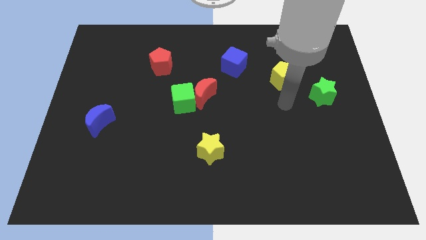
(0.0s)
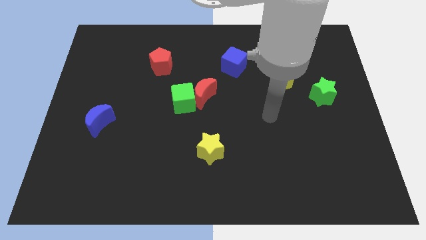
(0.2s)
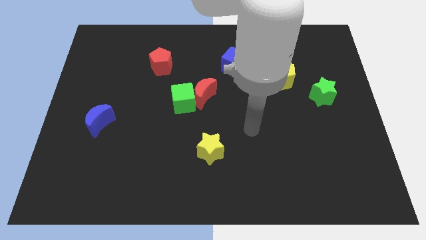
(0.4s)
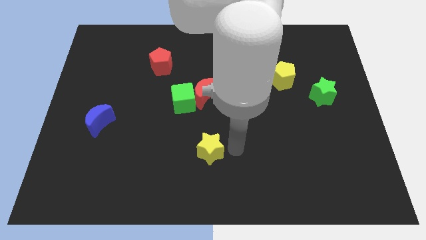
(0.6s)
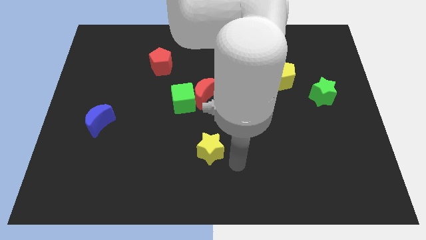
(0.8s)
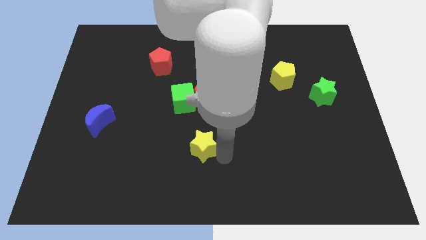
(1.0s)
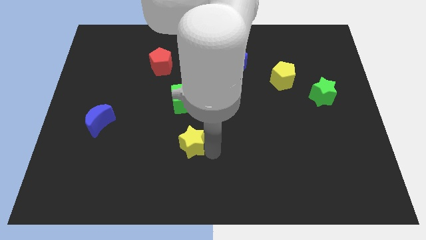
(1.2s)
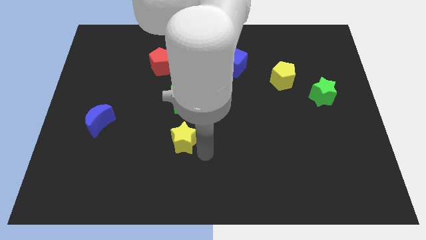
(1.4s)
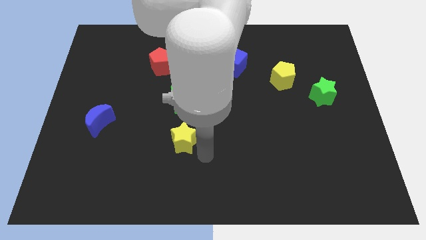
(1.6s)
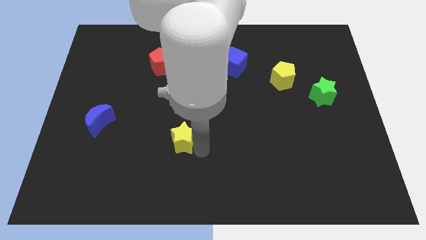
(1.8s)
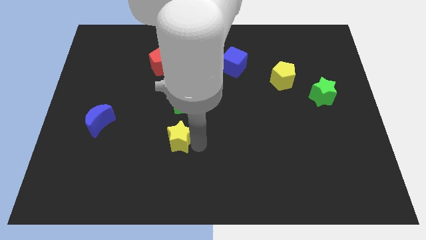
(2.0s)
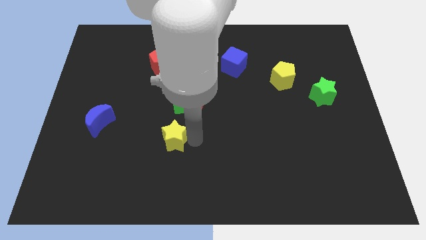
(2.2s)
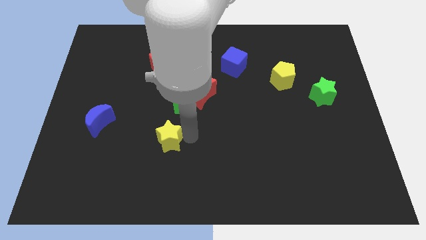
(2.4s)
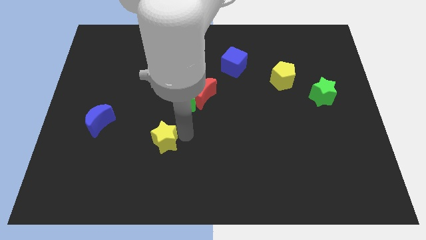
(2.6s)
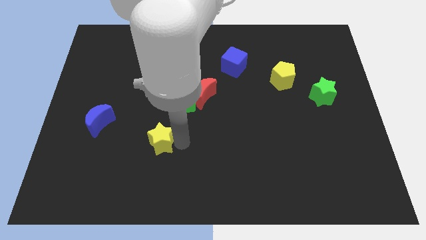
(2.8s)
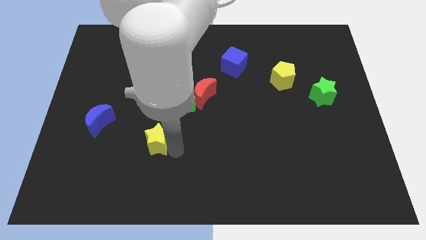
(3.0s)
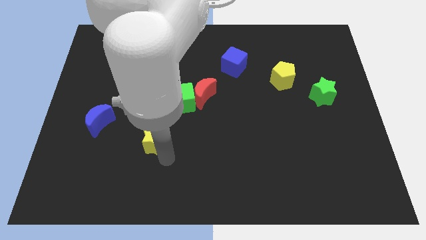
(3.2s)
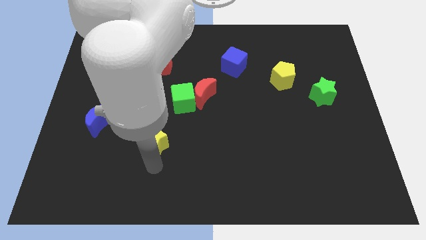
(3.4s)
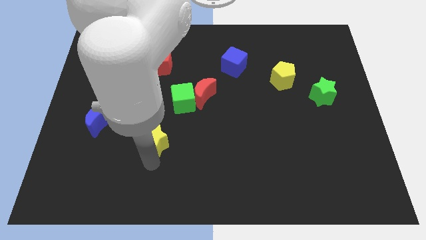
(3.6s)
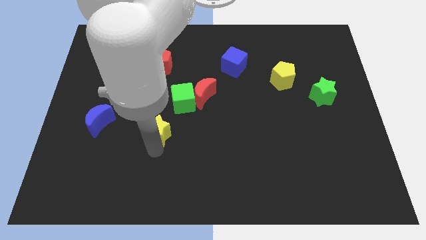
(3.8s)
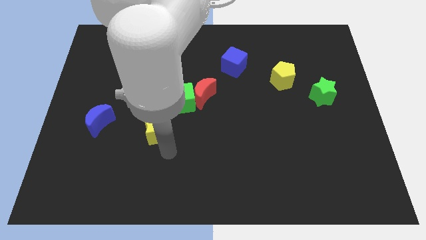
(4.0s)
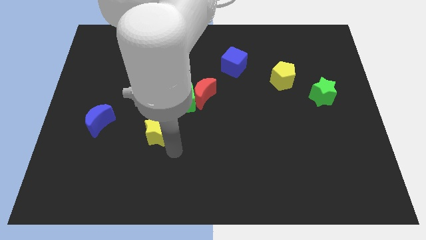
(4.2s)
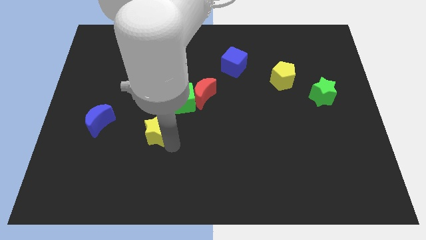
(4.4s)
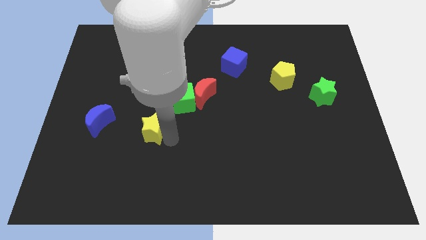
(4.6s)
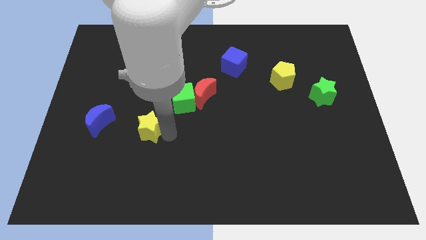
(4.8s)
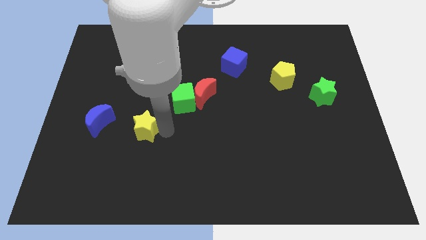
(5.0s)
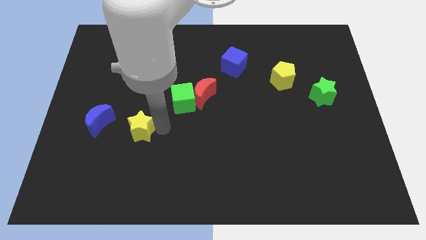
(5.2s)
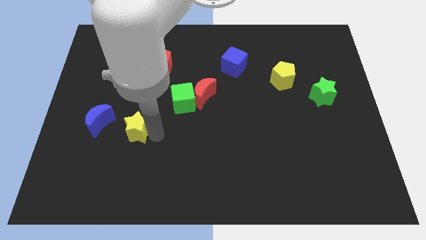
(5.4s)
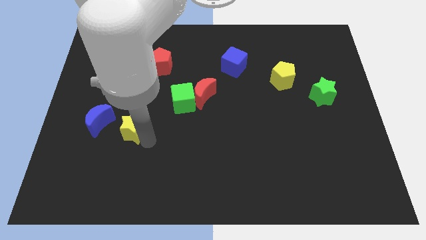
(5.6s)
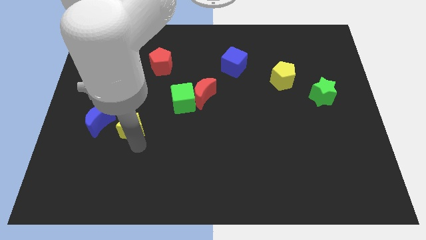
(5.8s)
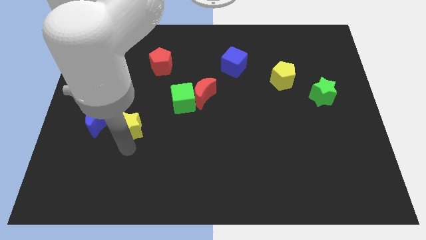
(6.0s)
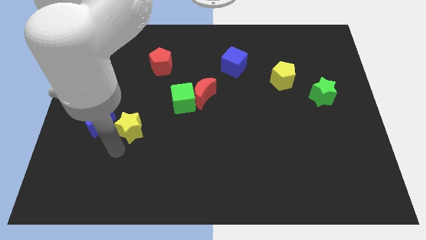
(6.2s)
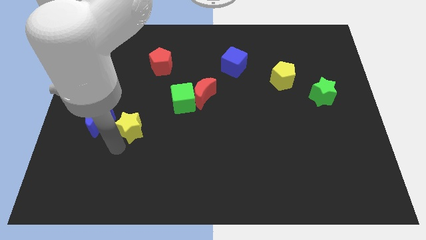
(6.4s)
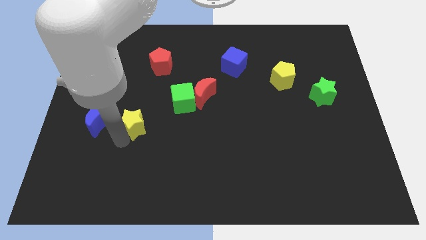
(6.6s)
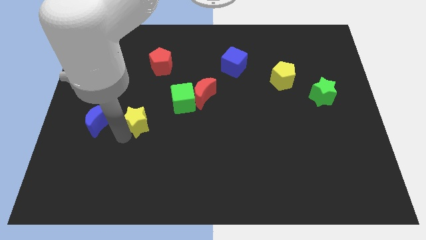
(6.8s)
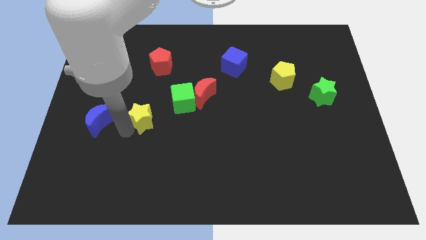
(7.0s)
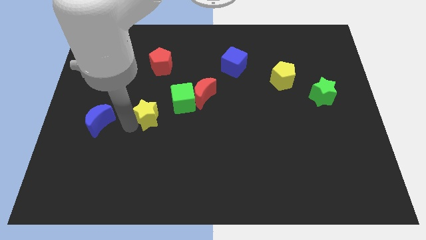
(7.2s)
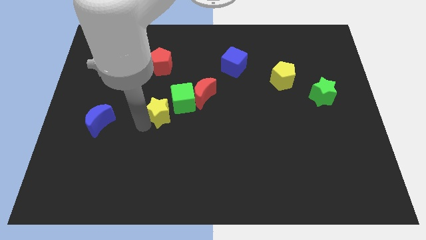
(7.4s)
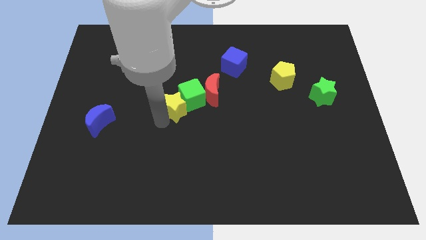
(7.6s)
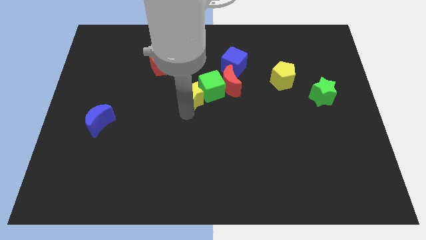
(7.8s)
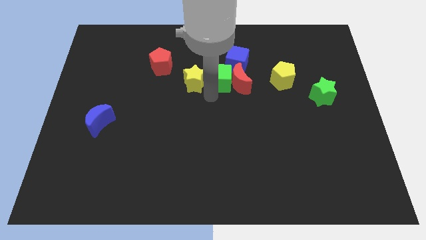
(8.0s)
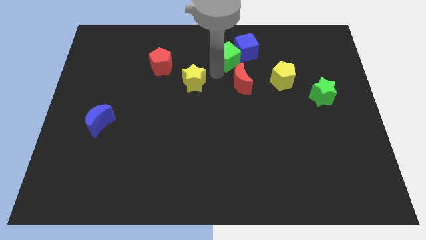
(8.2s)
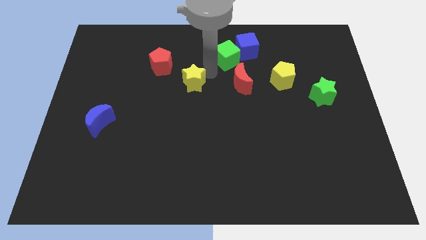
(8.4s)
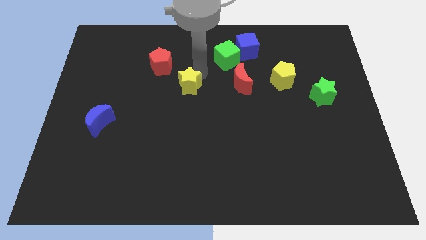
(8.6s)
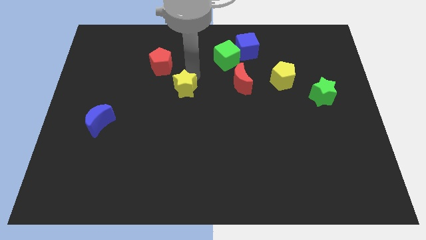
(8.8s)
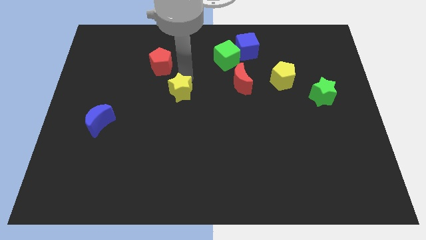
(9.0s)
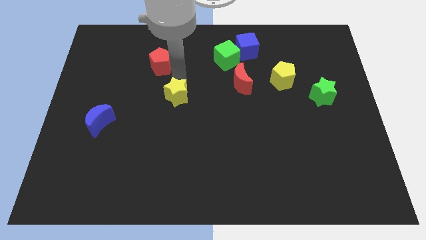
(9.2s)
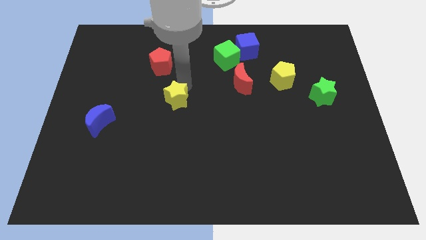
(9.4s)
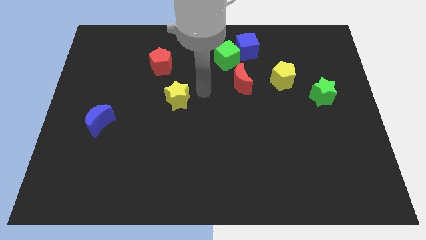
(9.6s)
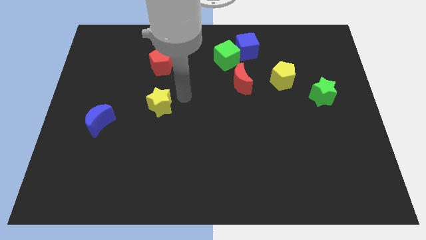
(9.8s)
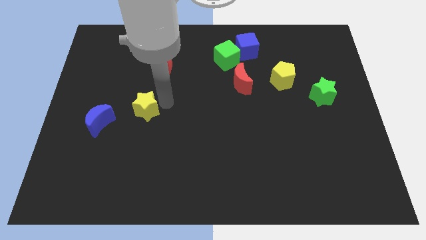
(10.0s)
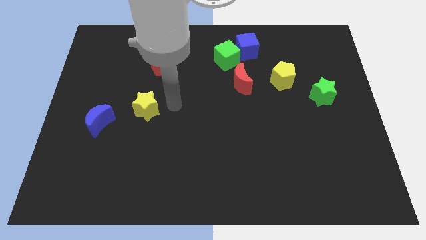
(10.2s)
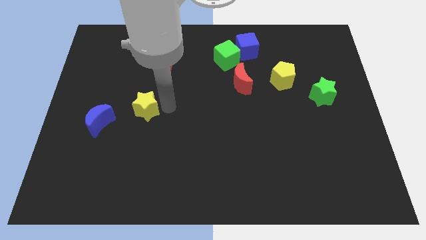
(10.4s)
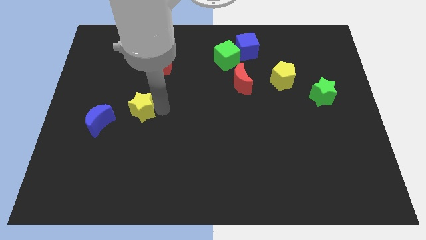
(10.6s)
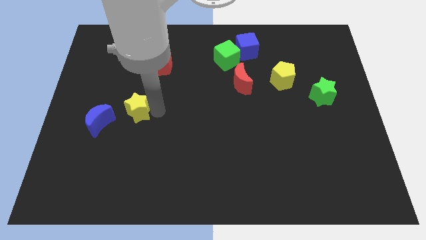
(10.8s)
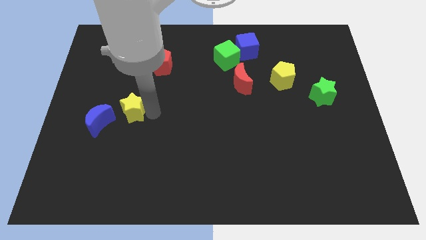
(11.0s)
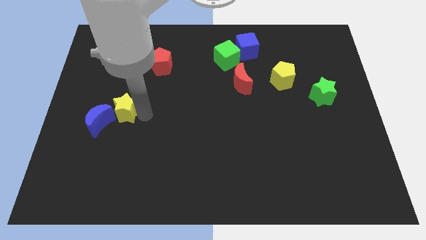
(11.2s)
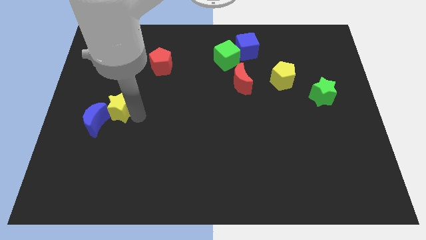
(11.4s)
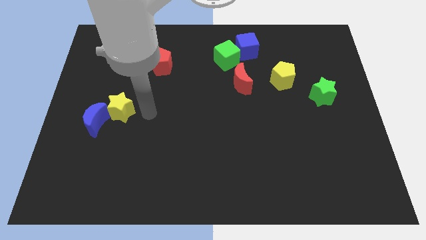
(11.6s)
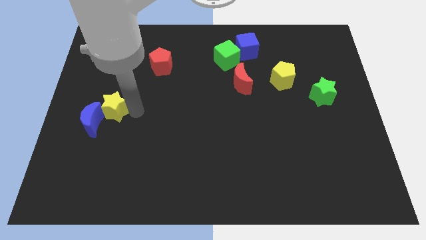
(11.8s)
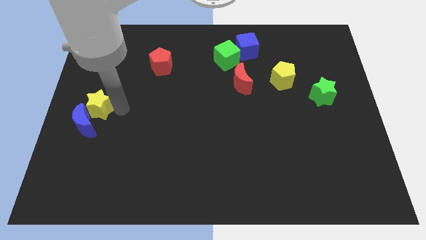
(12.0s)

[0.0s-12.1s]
slide the yellow star to the left side
